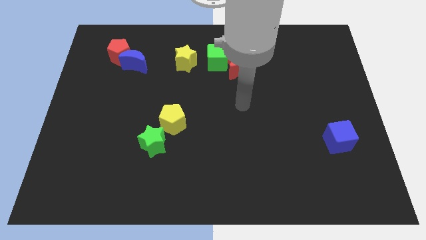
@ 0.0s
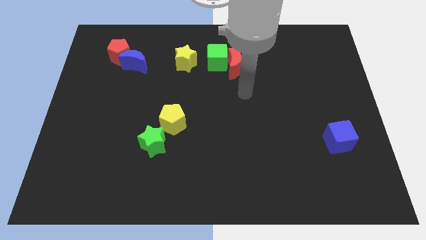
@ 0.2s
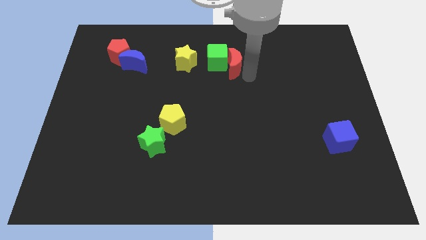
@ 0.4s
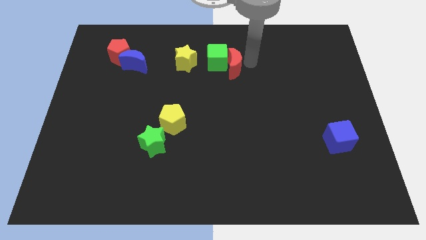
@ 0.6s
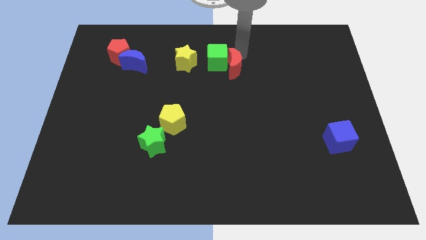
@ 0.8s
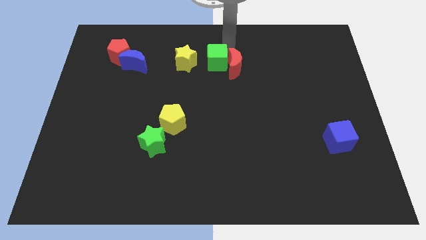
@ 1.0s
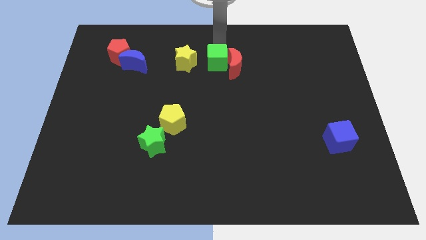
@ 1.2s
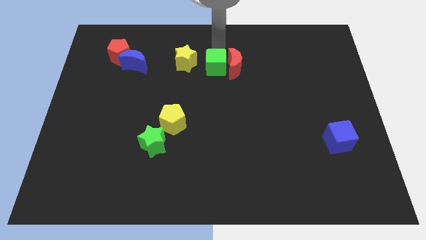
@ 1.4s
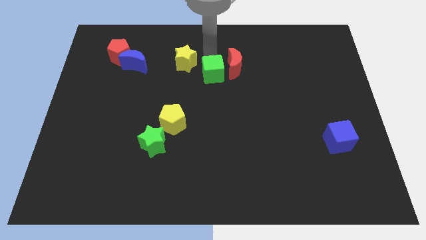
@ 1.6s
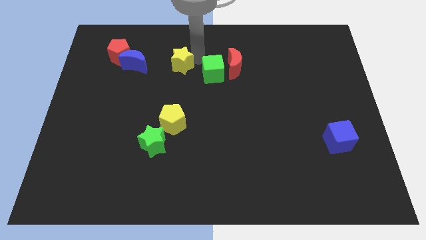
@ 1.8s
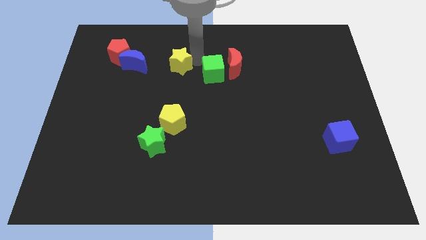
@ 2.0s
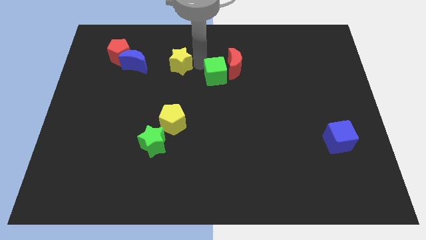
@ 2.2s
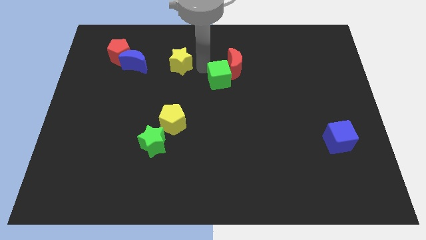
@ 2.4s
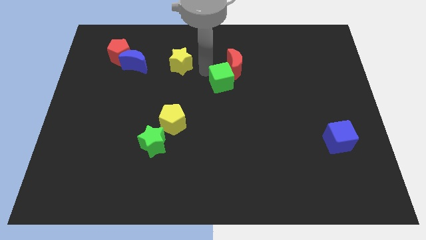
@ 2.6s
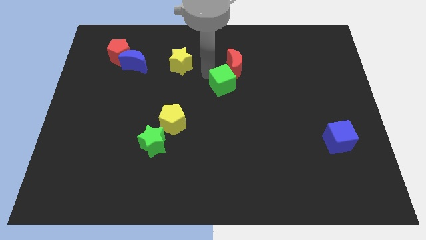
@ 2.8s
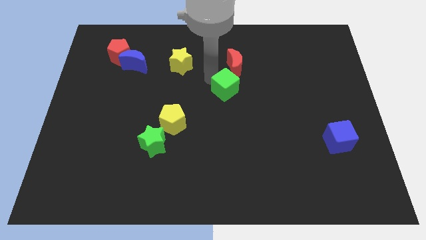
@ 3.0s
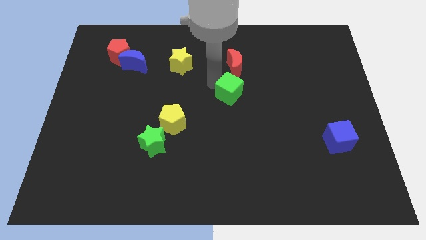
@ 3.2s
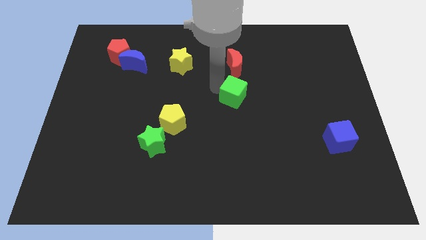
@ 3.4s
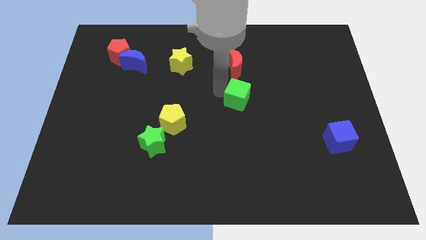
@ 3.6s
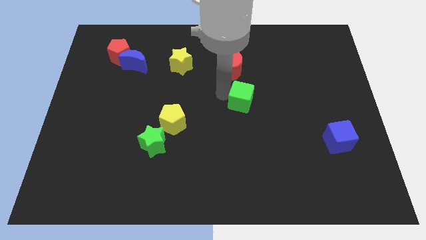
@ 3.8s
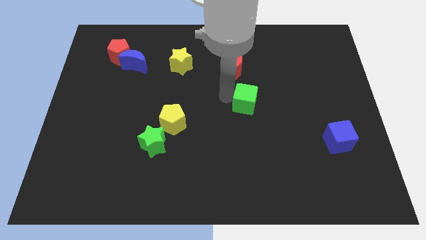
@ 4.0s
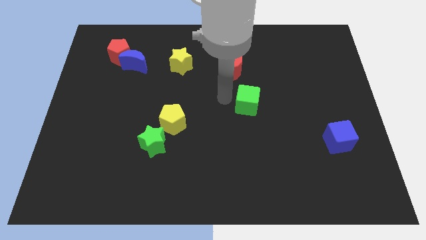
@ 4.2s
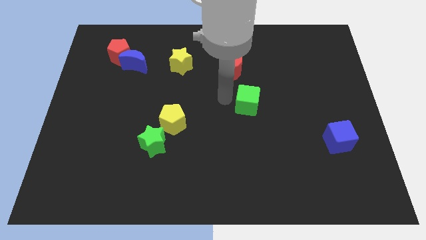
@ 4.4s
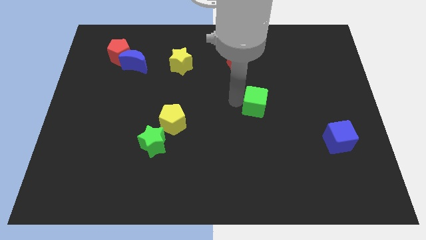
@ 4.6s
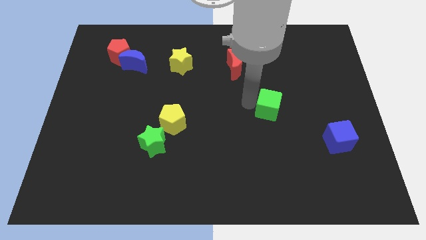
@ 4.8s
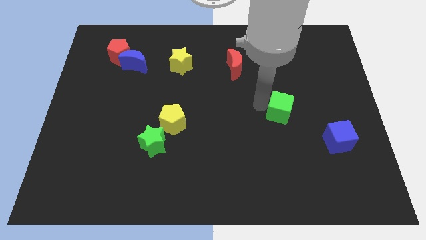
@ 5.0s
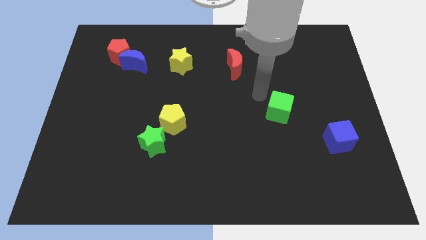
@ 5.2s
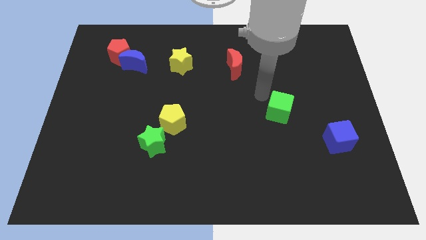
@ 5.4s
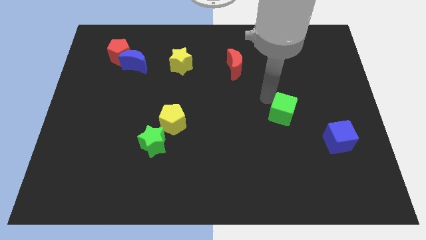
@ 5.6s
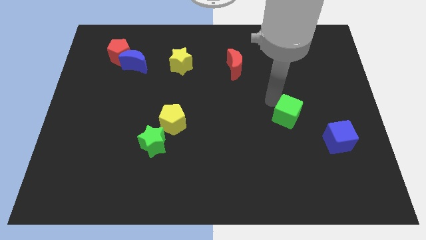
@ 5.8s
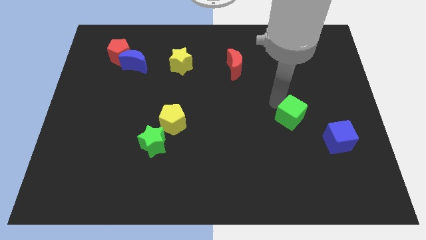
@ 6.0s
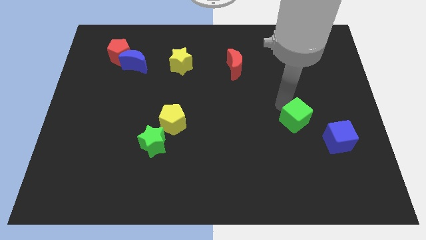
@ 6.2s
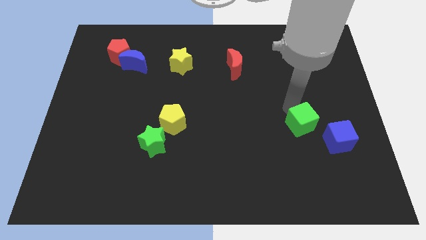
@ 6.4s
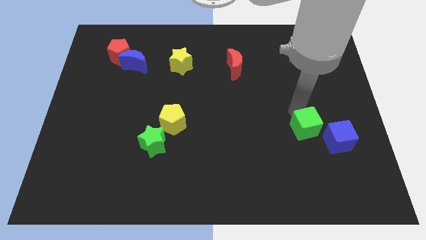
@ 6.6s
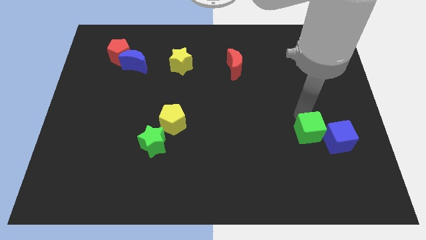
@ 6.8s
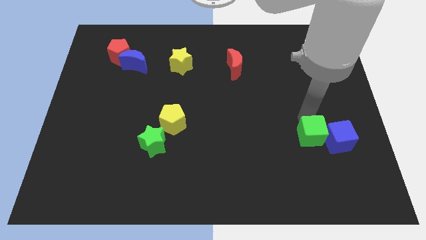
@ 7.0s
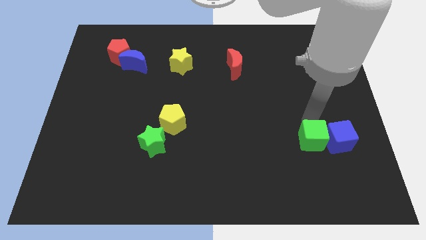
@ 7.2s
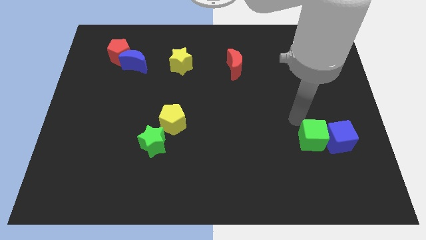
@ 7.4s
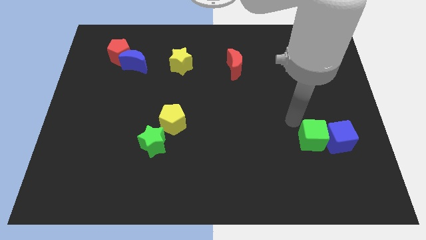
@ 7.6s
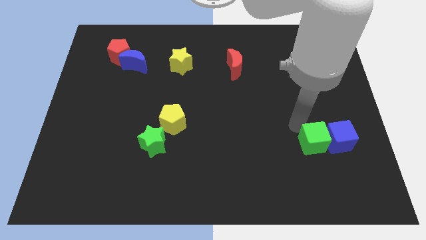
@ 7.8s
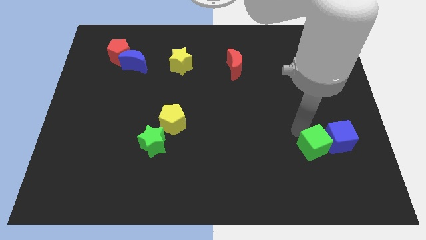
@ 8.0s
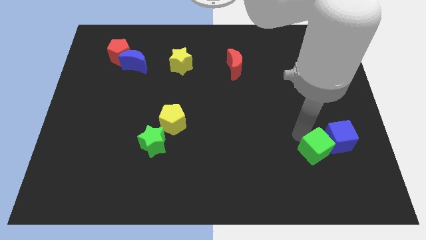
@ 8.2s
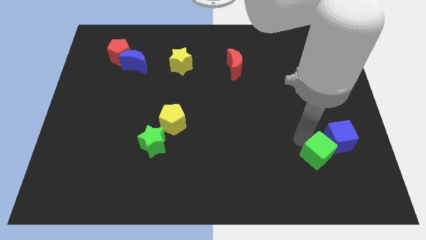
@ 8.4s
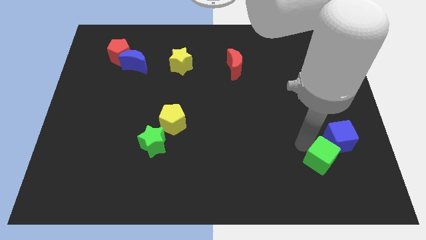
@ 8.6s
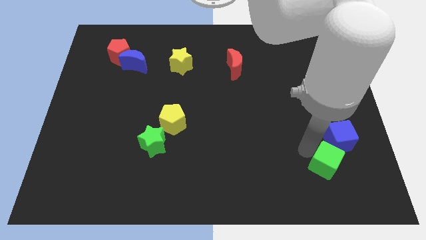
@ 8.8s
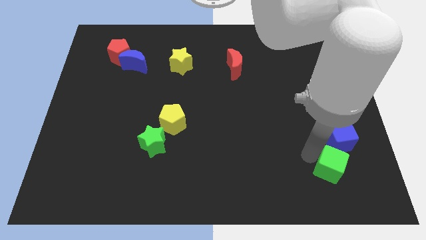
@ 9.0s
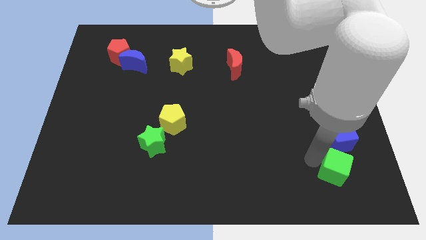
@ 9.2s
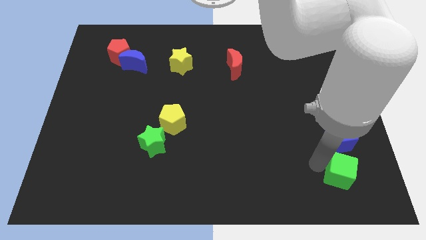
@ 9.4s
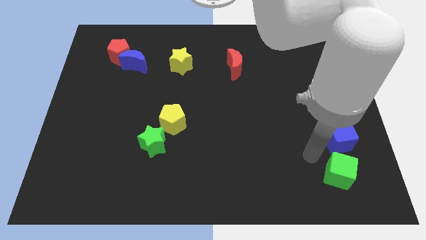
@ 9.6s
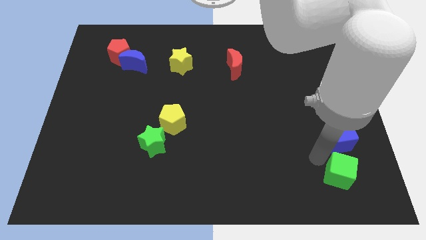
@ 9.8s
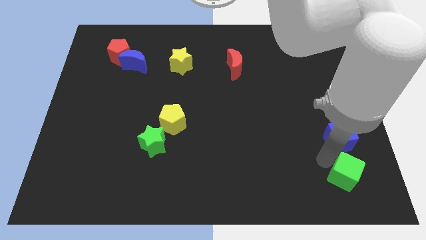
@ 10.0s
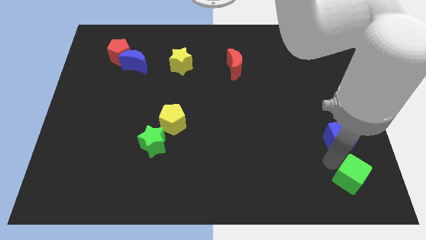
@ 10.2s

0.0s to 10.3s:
slide the green cube to the bottom right

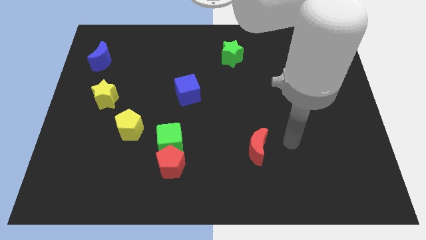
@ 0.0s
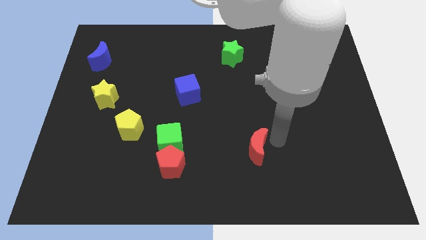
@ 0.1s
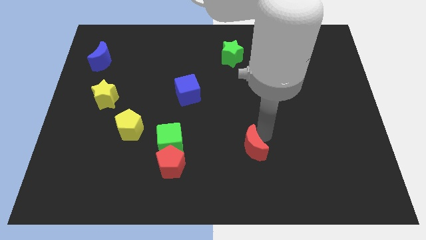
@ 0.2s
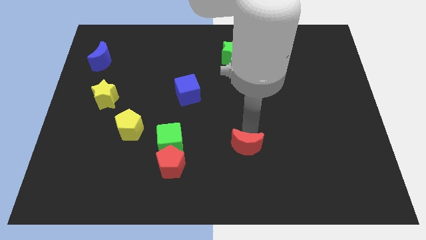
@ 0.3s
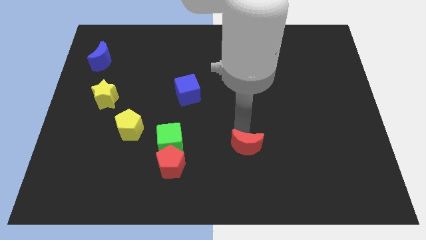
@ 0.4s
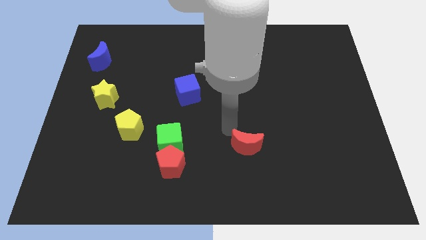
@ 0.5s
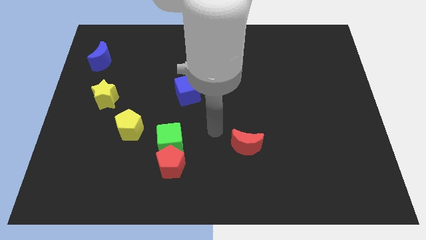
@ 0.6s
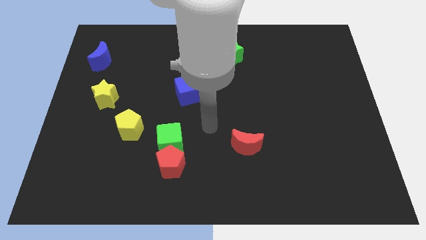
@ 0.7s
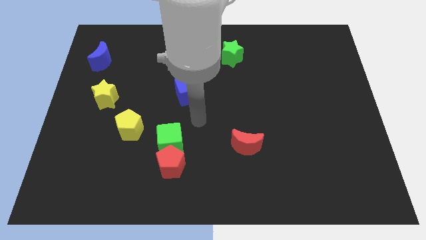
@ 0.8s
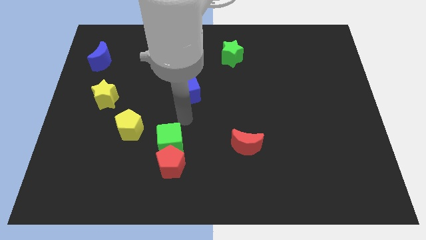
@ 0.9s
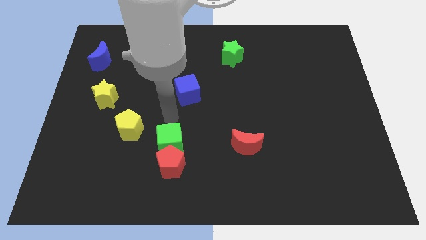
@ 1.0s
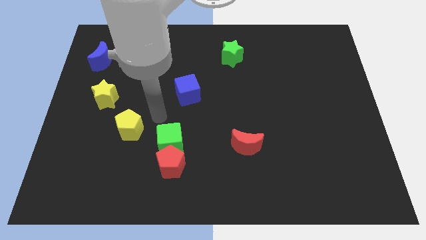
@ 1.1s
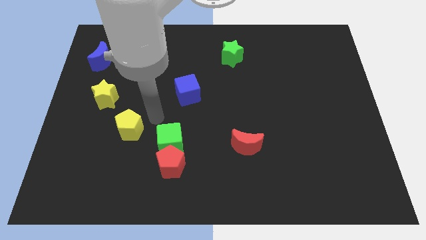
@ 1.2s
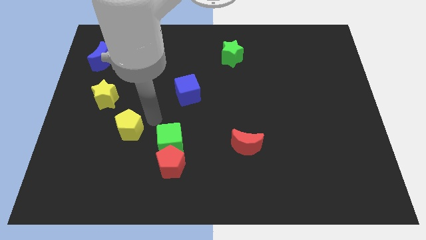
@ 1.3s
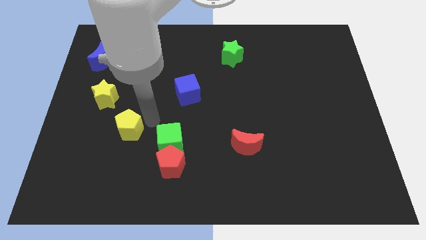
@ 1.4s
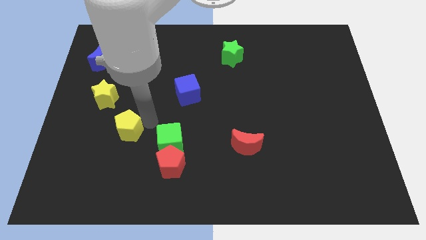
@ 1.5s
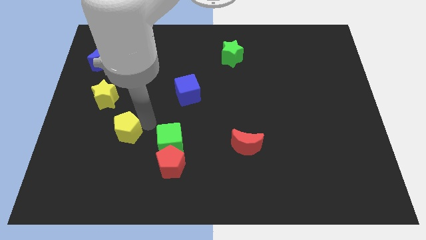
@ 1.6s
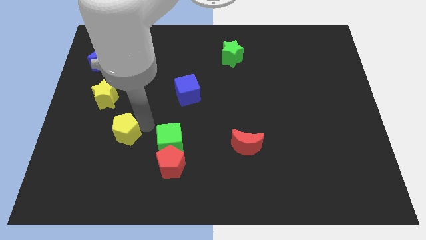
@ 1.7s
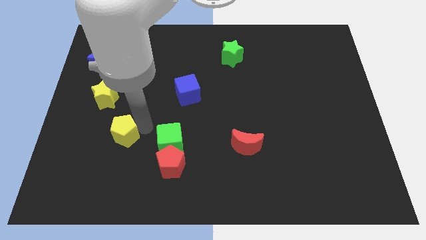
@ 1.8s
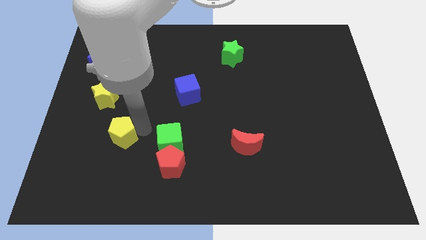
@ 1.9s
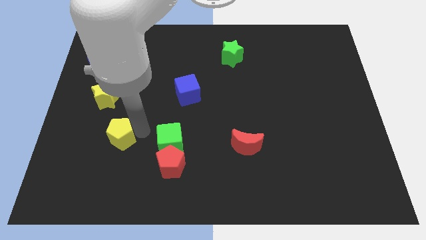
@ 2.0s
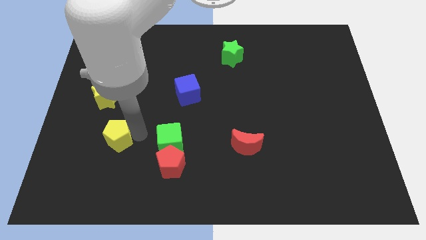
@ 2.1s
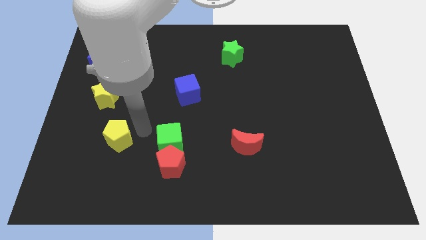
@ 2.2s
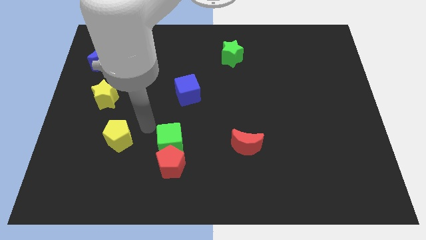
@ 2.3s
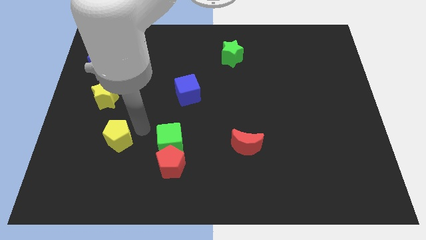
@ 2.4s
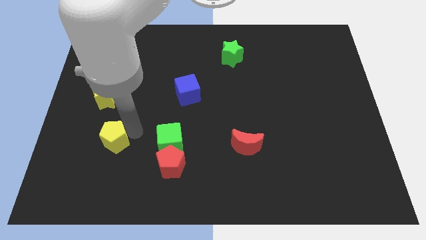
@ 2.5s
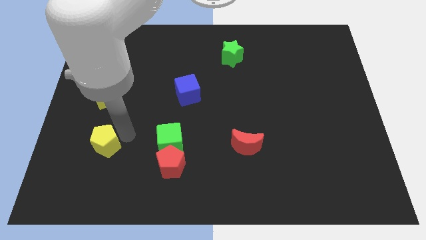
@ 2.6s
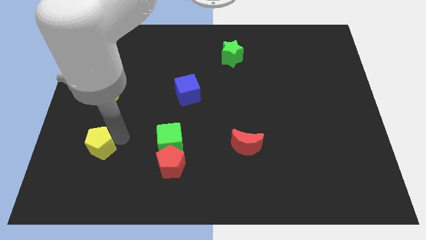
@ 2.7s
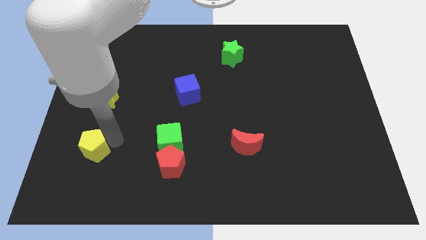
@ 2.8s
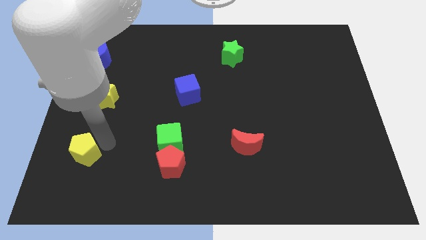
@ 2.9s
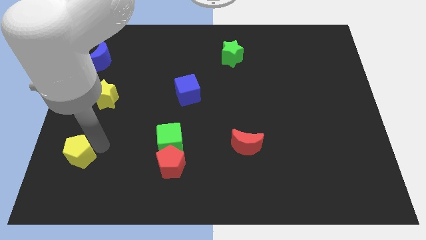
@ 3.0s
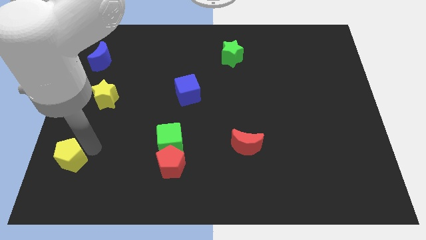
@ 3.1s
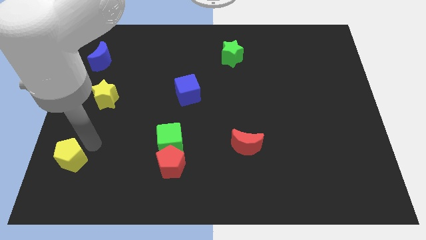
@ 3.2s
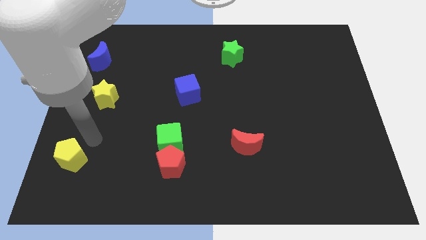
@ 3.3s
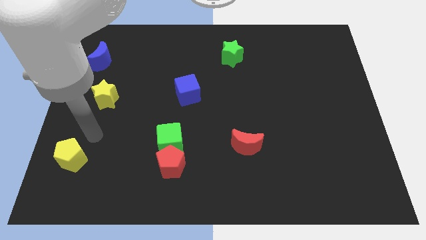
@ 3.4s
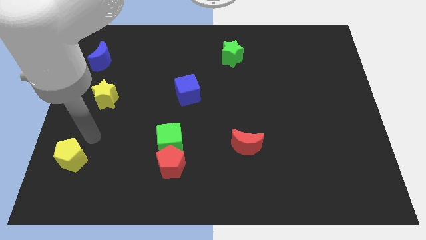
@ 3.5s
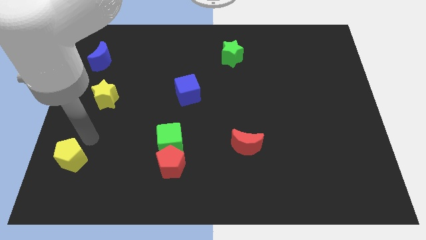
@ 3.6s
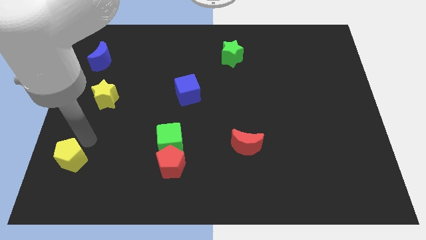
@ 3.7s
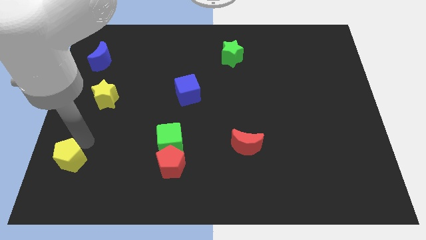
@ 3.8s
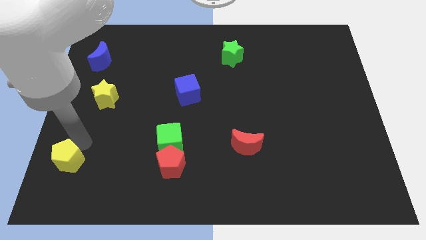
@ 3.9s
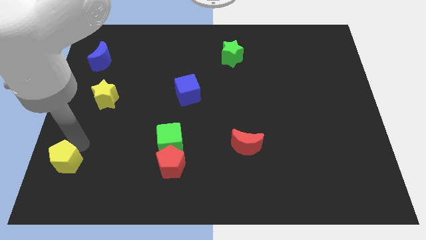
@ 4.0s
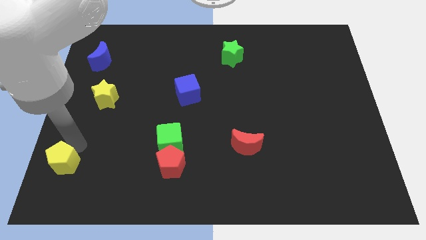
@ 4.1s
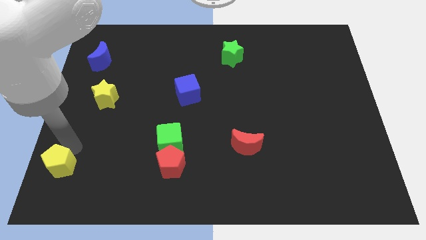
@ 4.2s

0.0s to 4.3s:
push the yellow pentagon to the bottom left corner
